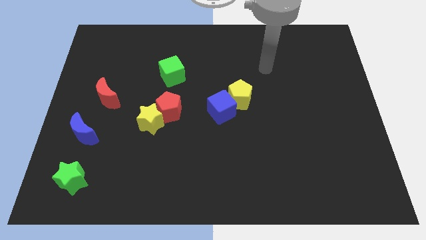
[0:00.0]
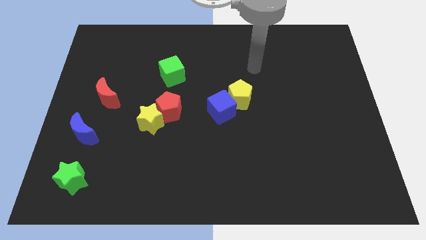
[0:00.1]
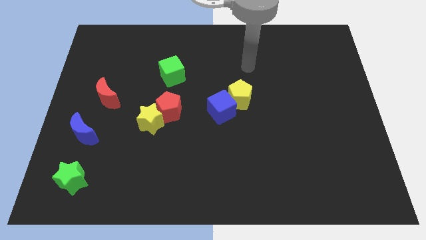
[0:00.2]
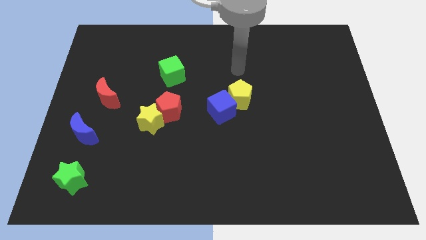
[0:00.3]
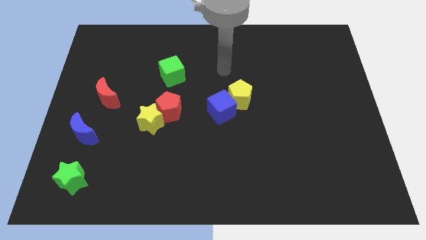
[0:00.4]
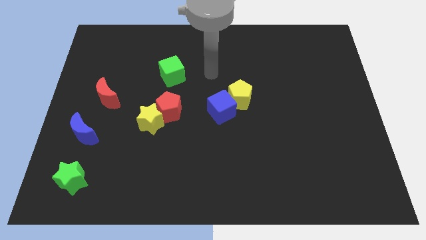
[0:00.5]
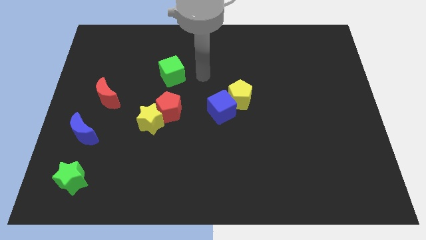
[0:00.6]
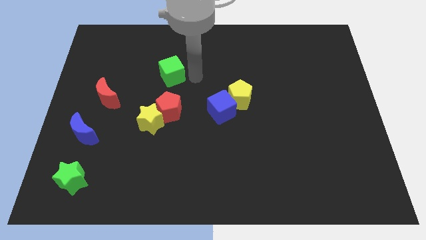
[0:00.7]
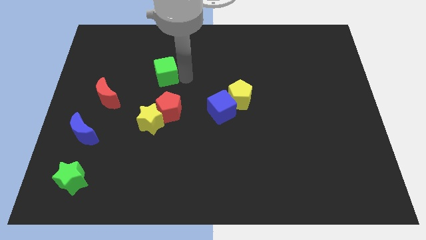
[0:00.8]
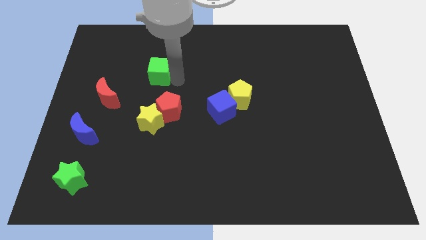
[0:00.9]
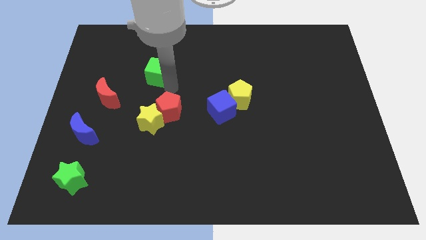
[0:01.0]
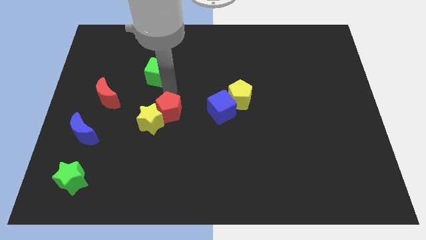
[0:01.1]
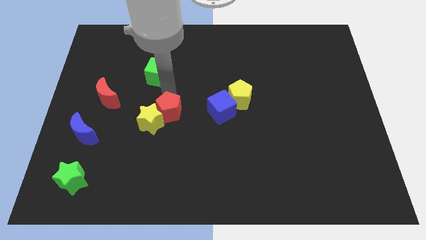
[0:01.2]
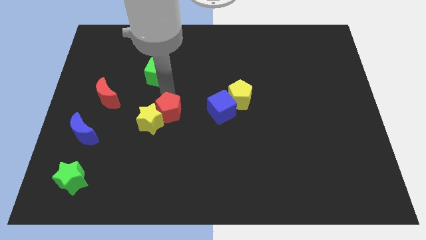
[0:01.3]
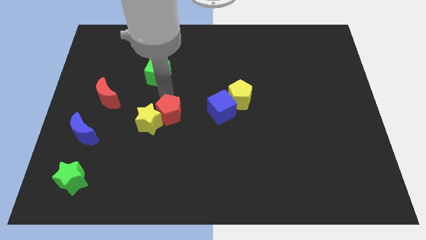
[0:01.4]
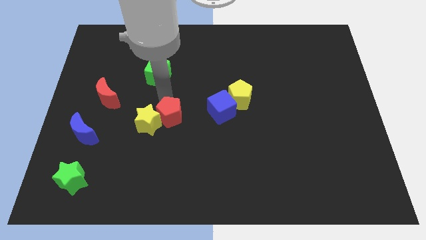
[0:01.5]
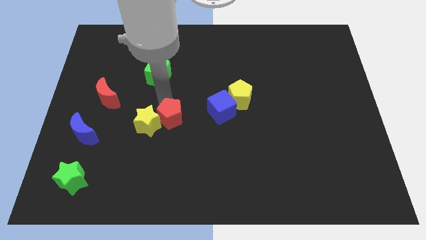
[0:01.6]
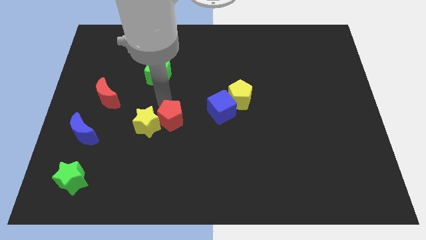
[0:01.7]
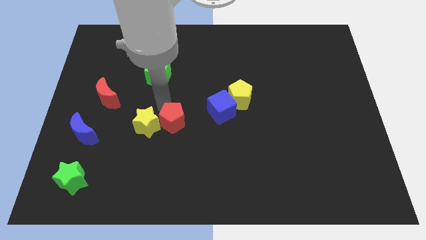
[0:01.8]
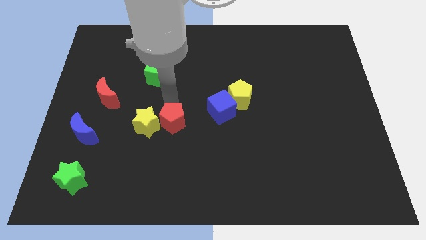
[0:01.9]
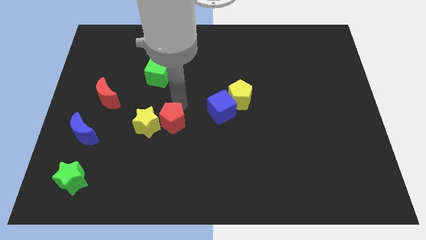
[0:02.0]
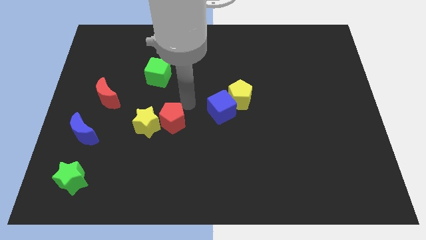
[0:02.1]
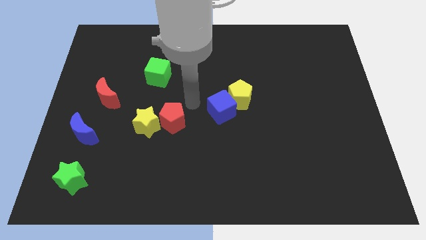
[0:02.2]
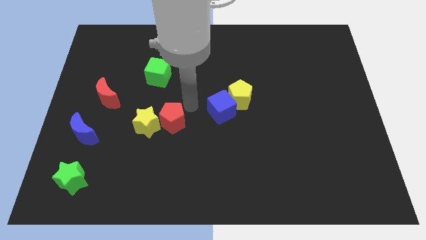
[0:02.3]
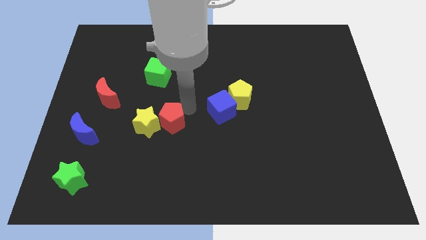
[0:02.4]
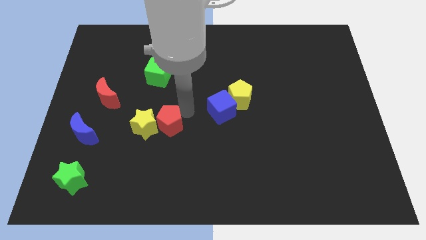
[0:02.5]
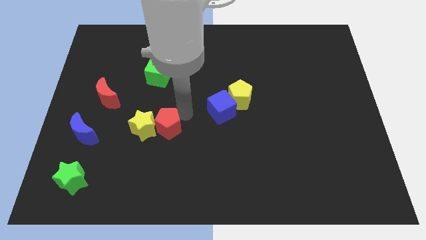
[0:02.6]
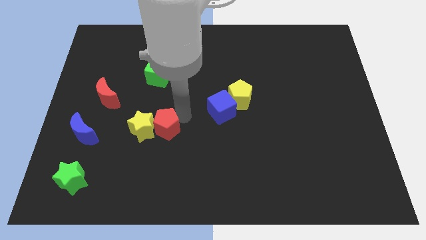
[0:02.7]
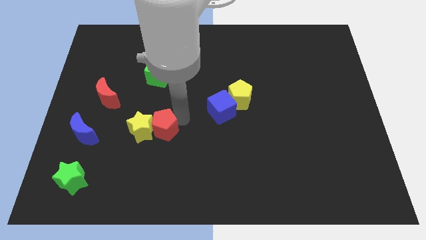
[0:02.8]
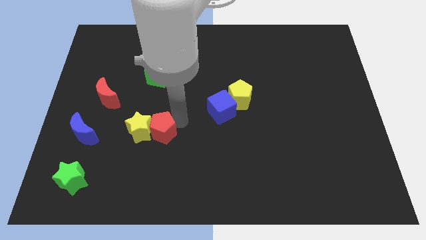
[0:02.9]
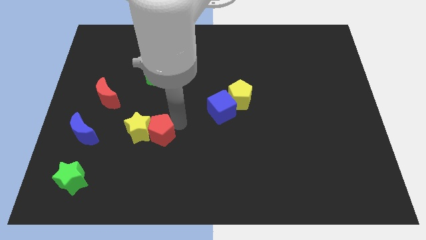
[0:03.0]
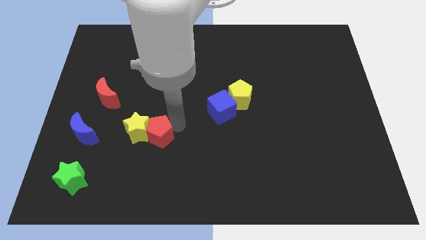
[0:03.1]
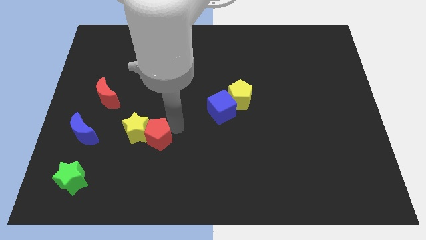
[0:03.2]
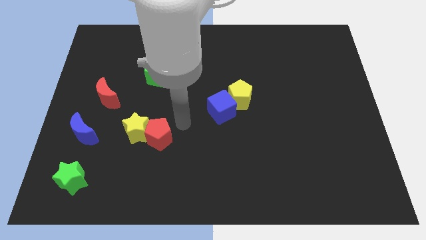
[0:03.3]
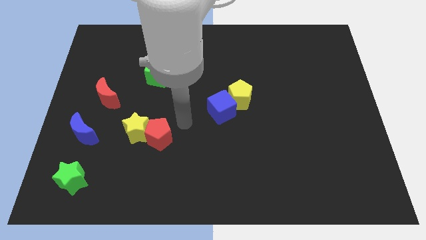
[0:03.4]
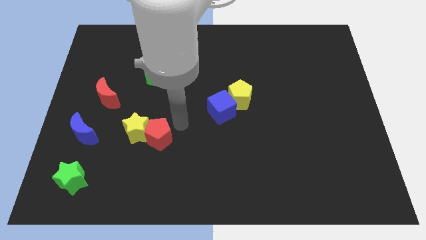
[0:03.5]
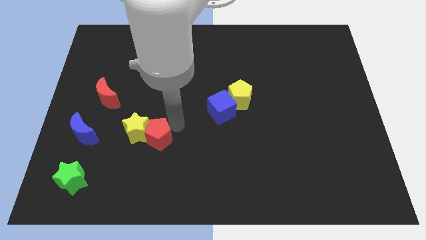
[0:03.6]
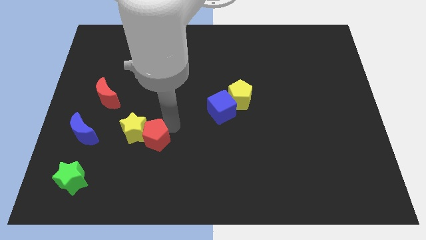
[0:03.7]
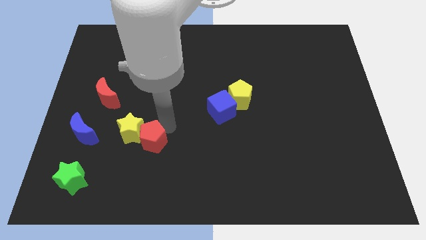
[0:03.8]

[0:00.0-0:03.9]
push the red pentagon downwards and left a little bit

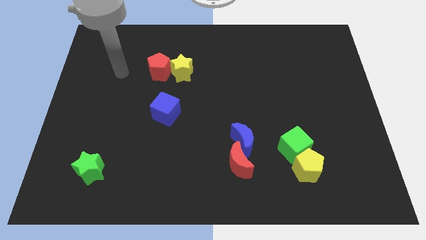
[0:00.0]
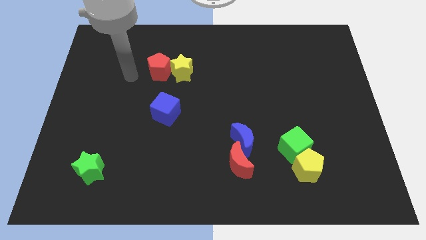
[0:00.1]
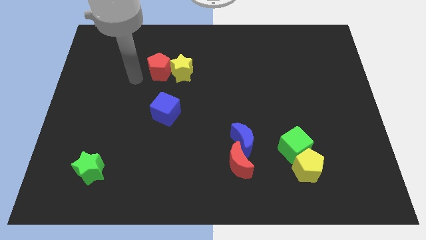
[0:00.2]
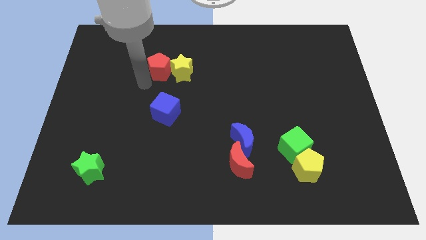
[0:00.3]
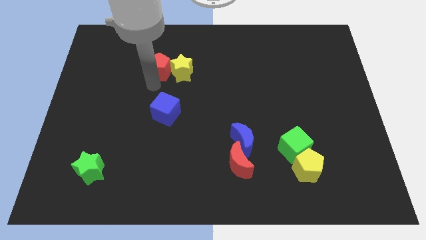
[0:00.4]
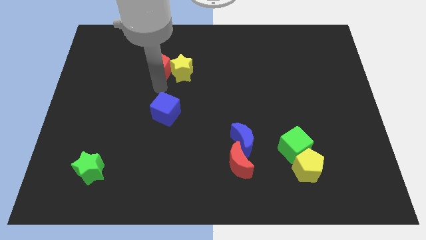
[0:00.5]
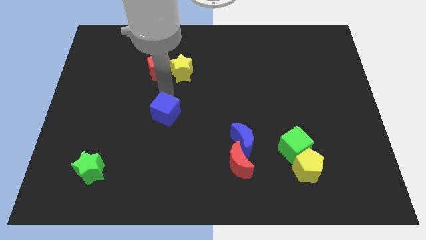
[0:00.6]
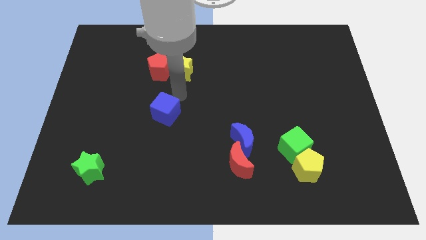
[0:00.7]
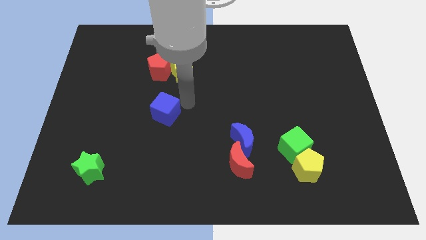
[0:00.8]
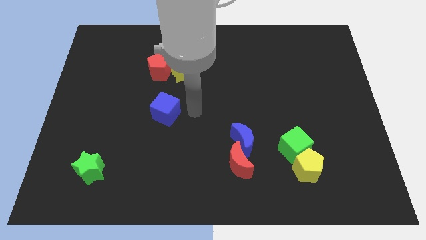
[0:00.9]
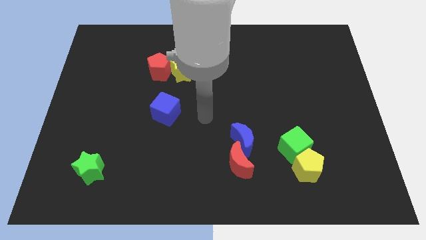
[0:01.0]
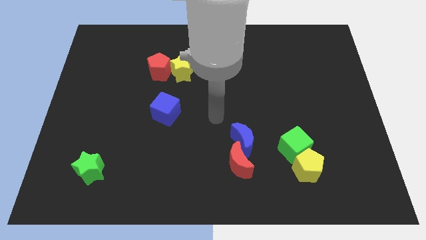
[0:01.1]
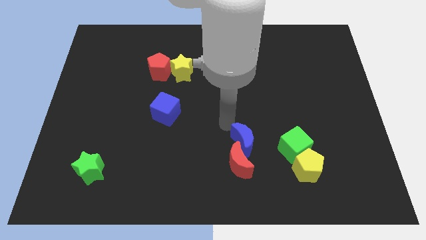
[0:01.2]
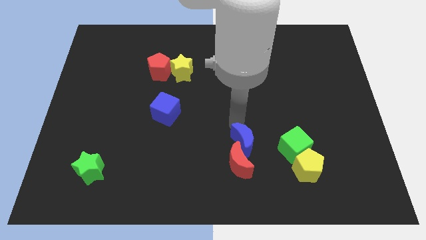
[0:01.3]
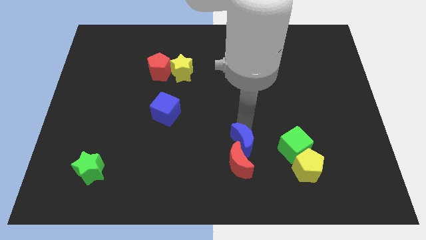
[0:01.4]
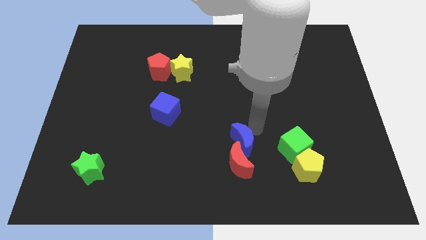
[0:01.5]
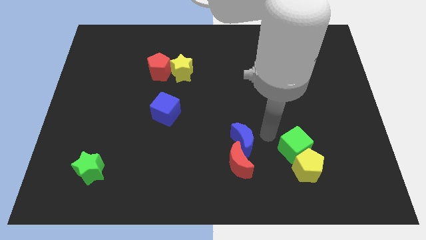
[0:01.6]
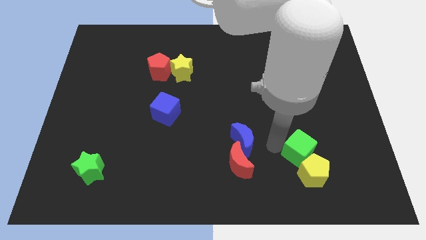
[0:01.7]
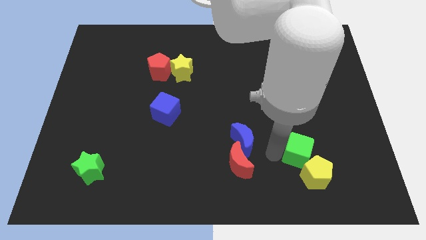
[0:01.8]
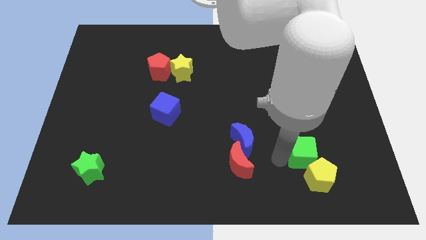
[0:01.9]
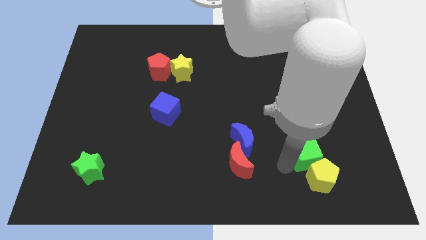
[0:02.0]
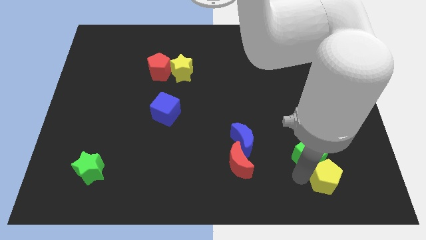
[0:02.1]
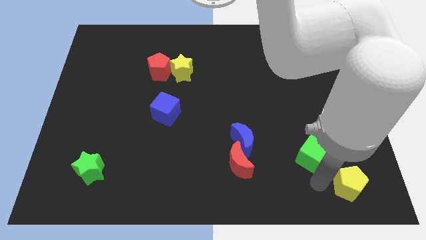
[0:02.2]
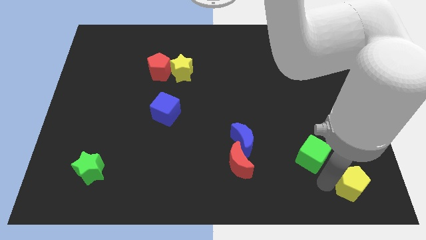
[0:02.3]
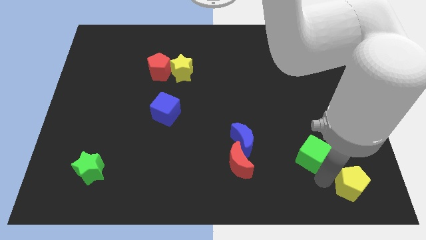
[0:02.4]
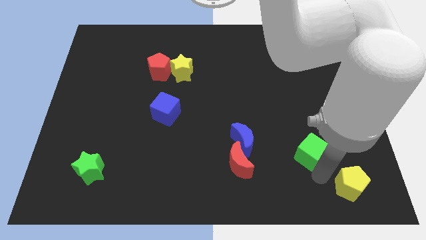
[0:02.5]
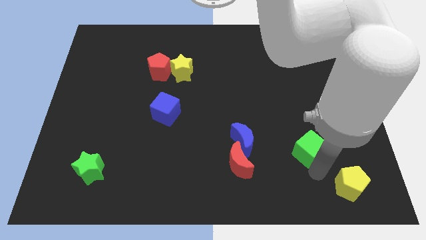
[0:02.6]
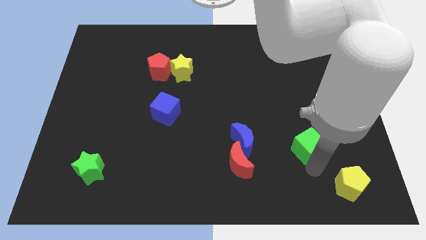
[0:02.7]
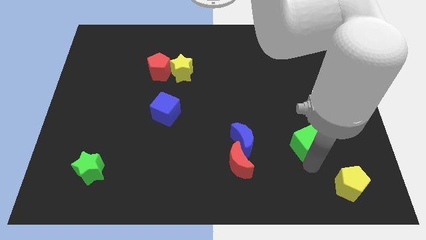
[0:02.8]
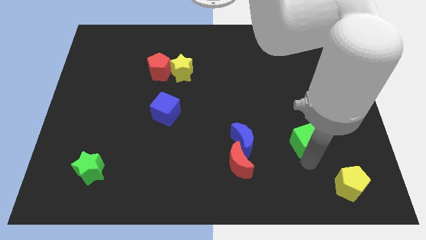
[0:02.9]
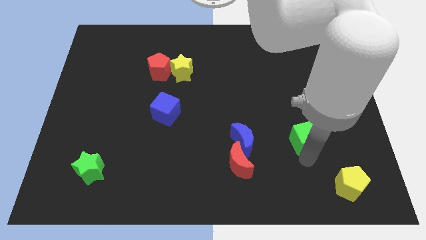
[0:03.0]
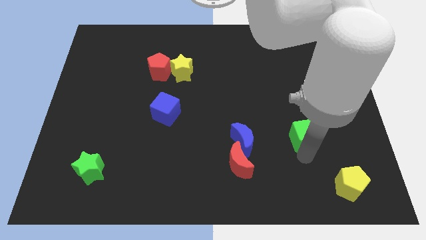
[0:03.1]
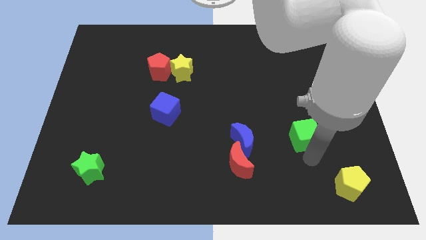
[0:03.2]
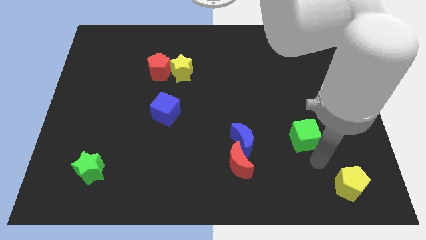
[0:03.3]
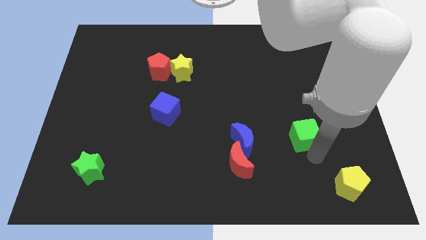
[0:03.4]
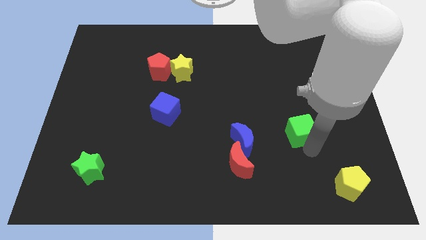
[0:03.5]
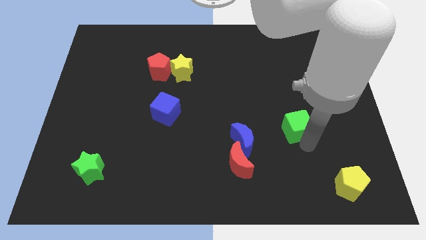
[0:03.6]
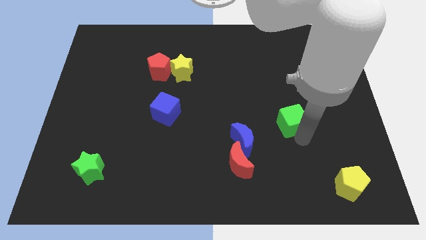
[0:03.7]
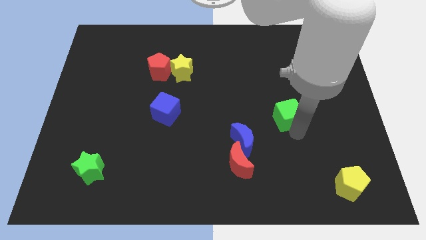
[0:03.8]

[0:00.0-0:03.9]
push the green cube somewhat up
